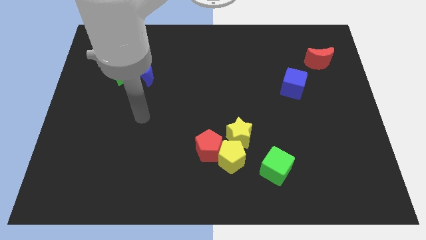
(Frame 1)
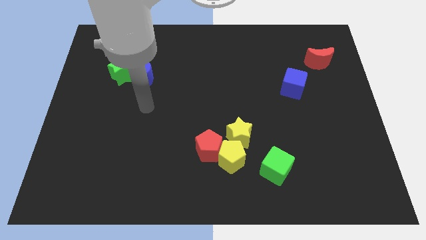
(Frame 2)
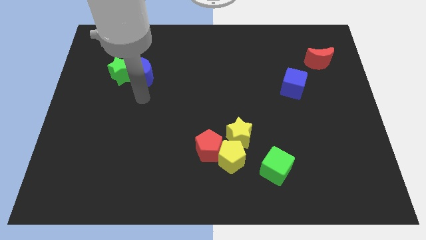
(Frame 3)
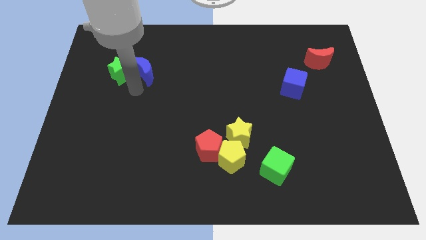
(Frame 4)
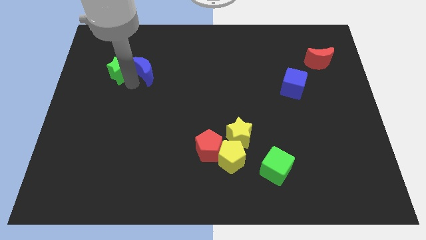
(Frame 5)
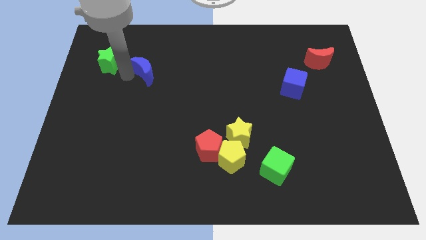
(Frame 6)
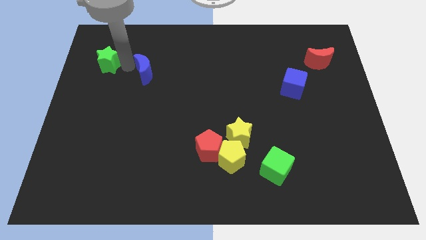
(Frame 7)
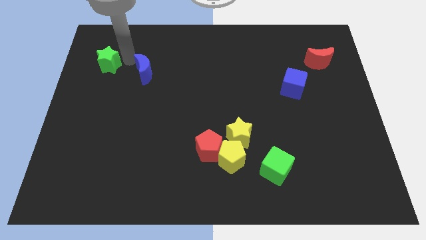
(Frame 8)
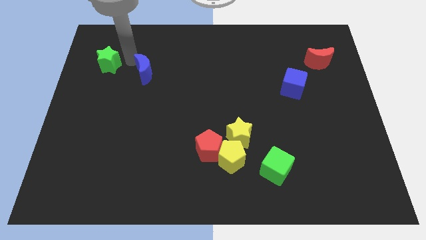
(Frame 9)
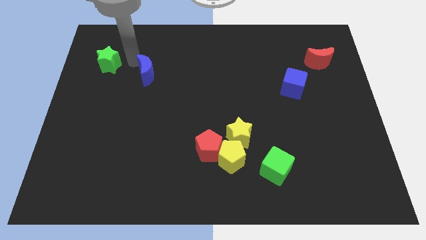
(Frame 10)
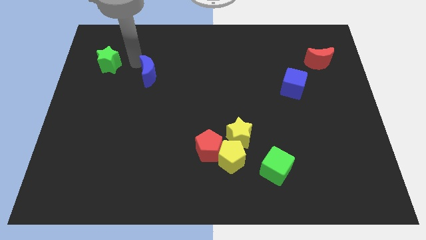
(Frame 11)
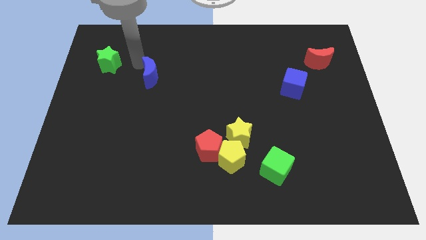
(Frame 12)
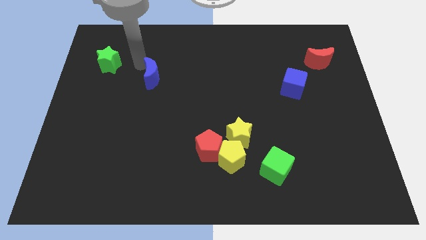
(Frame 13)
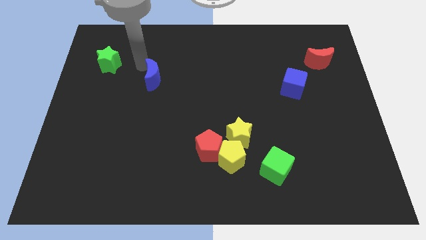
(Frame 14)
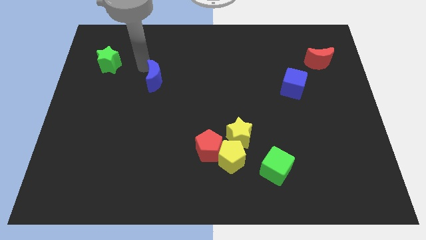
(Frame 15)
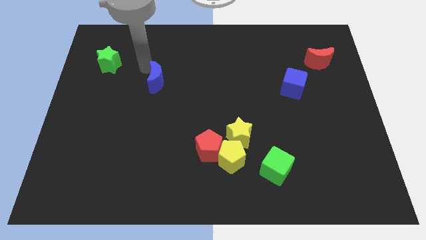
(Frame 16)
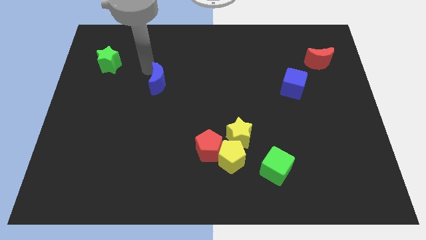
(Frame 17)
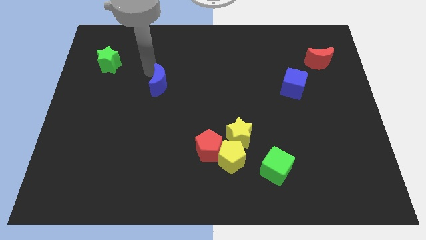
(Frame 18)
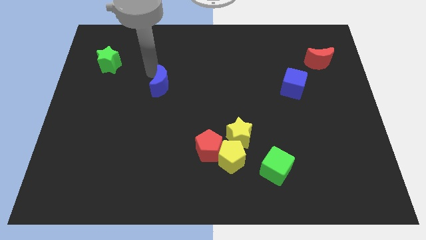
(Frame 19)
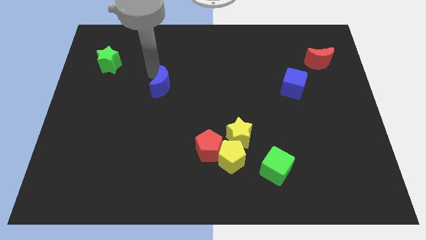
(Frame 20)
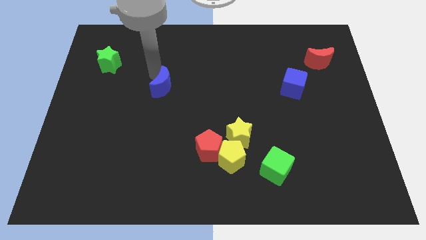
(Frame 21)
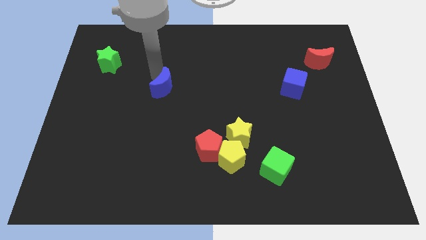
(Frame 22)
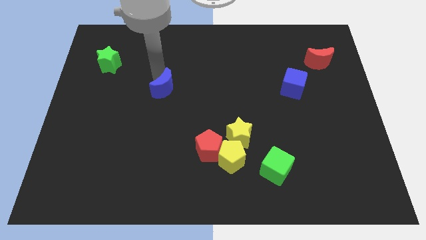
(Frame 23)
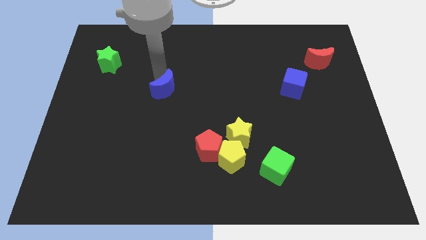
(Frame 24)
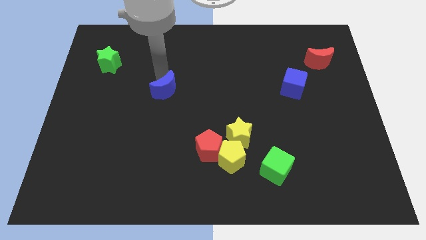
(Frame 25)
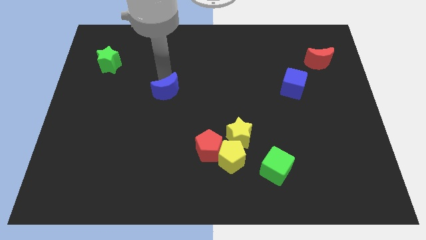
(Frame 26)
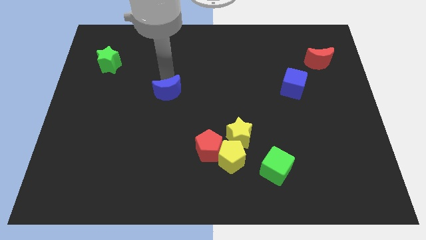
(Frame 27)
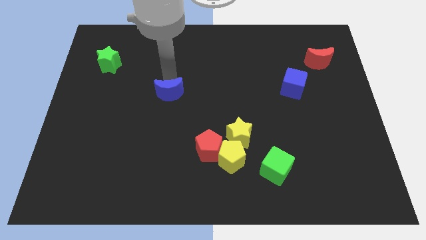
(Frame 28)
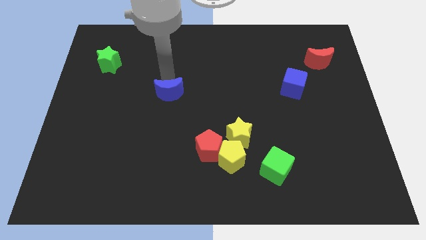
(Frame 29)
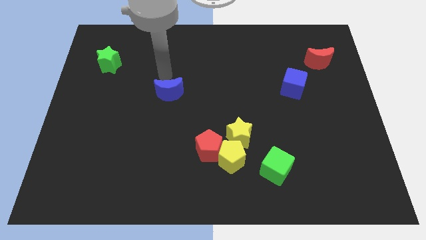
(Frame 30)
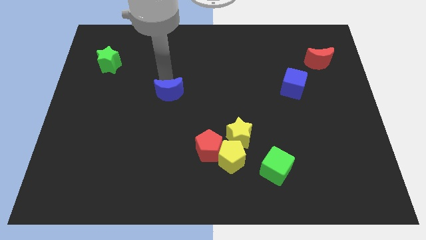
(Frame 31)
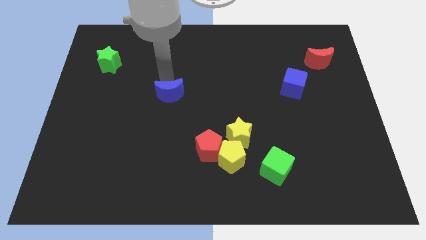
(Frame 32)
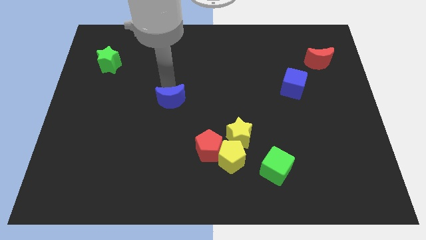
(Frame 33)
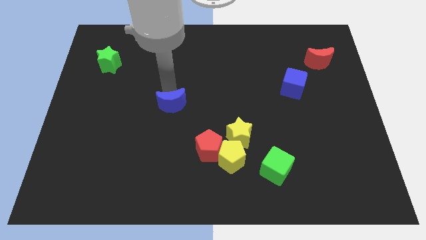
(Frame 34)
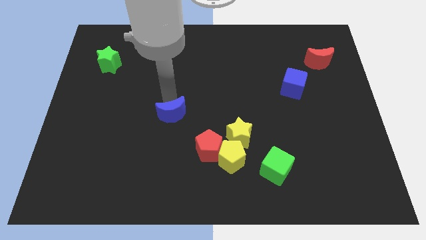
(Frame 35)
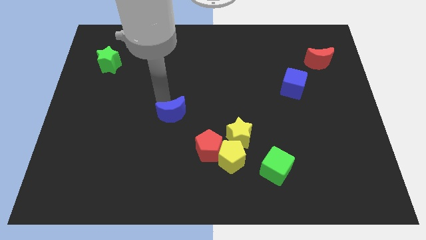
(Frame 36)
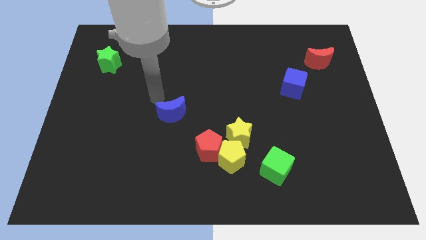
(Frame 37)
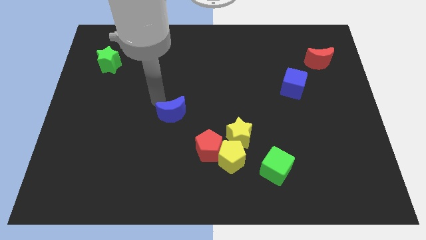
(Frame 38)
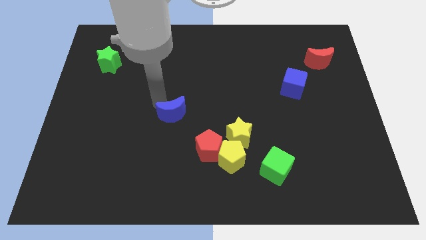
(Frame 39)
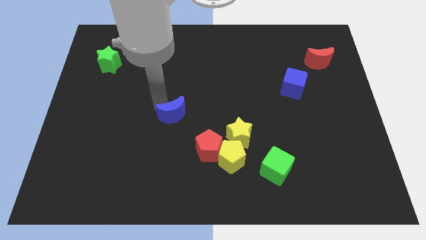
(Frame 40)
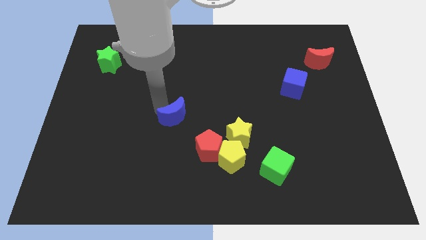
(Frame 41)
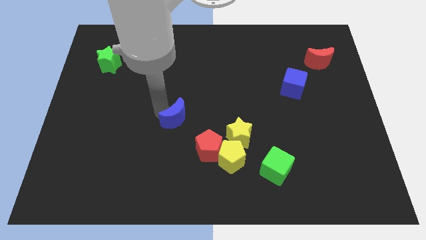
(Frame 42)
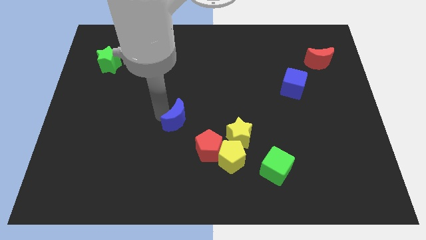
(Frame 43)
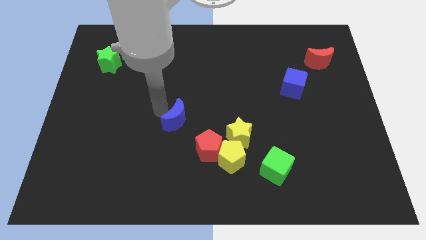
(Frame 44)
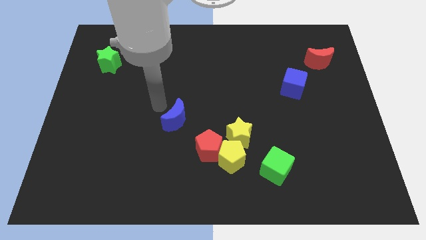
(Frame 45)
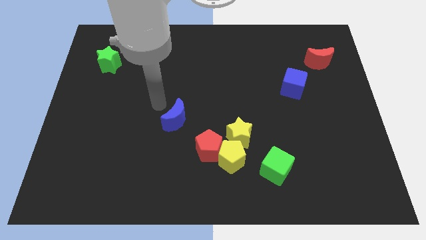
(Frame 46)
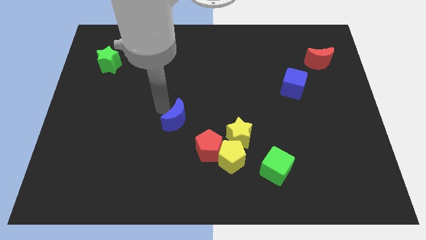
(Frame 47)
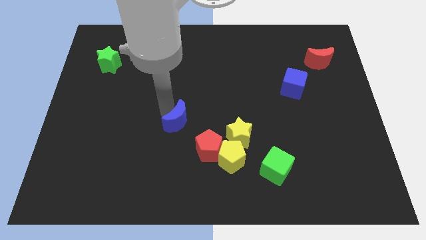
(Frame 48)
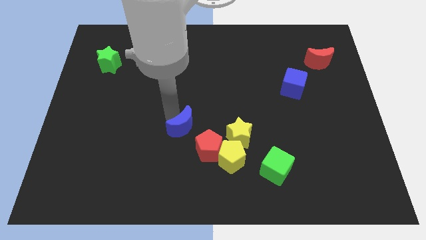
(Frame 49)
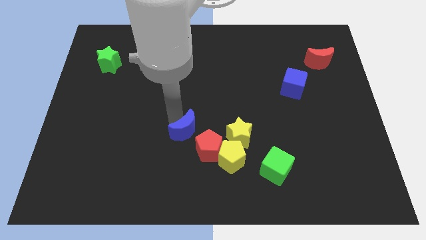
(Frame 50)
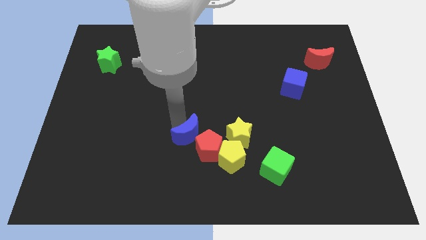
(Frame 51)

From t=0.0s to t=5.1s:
push the blue moon to the red pentagon

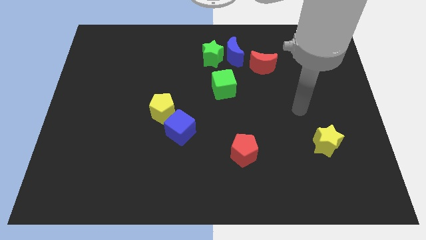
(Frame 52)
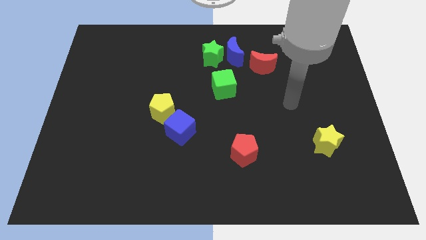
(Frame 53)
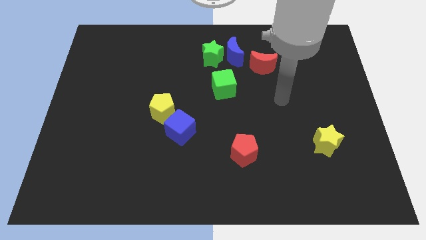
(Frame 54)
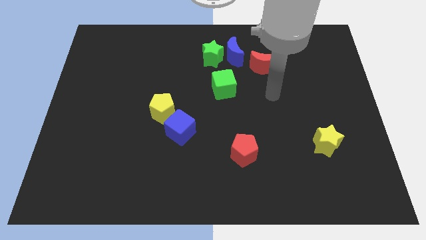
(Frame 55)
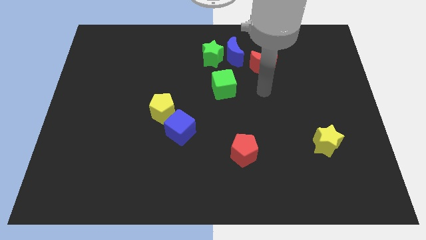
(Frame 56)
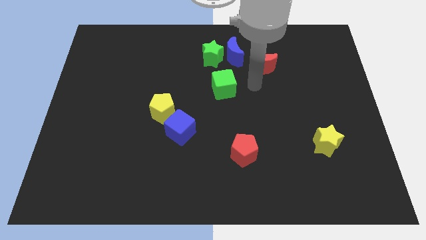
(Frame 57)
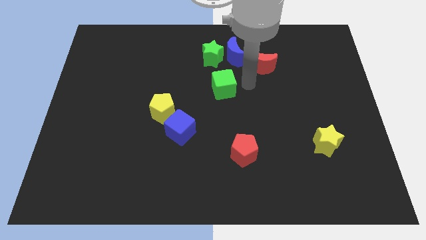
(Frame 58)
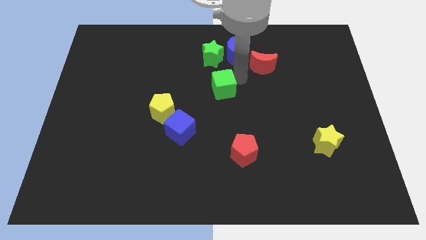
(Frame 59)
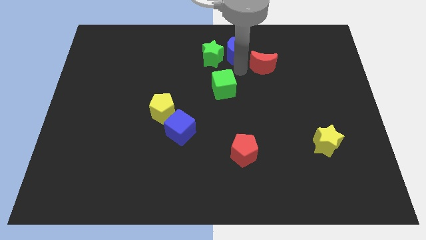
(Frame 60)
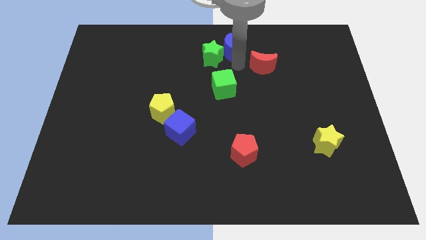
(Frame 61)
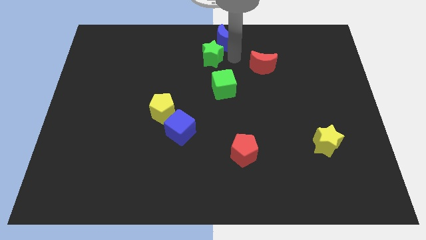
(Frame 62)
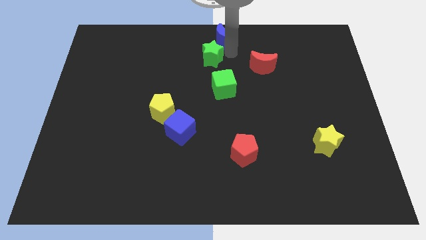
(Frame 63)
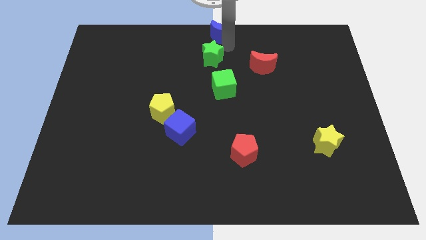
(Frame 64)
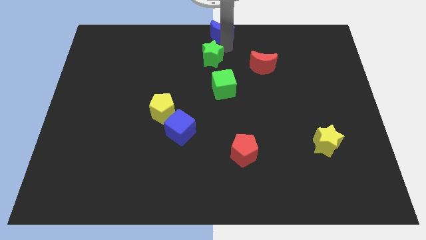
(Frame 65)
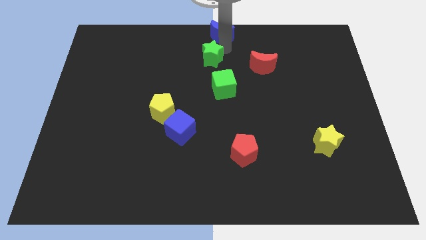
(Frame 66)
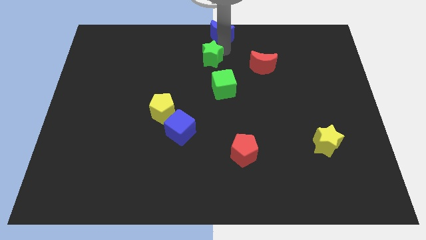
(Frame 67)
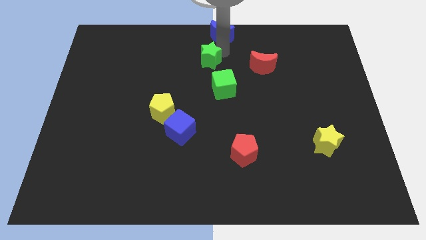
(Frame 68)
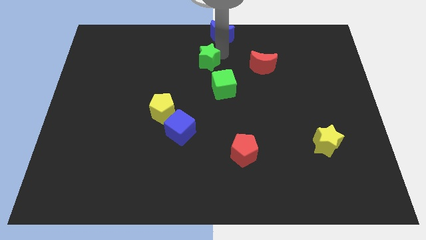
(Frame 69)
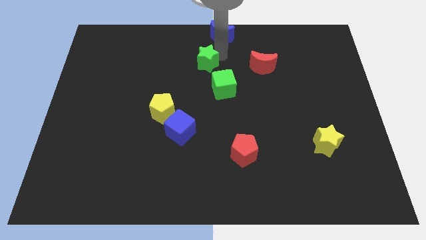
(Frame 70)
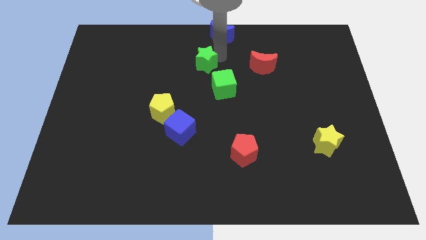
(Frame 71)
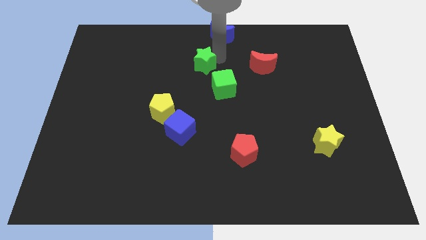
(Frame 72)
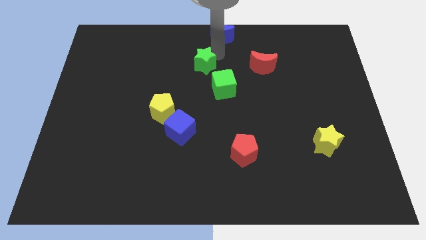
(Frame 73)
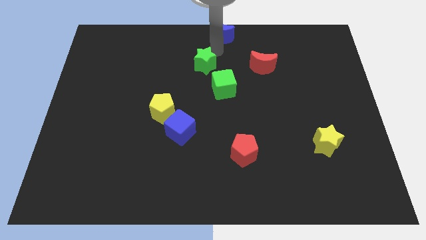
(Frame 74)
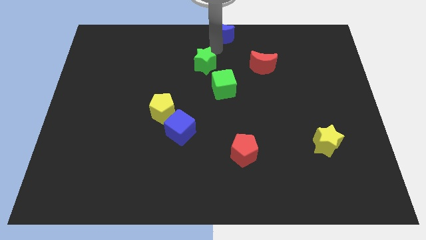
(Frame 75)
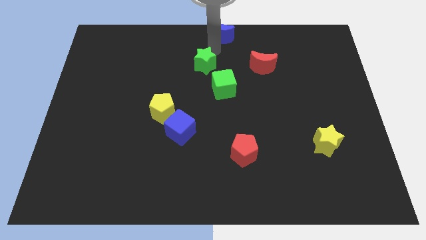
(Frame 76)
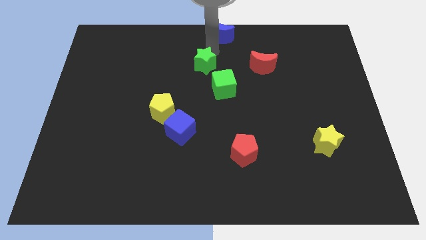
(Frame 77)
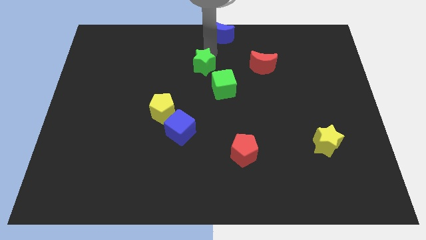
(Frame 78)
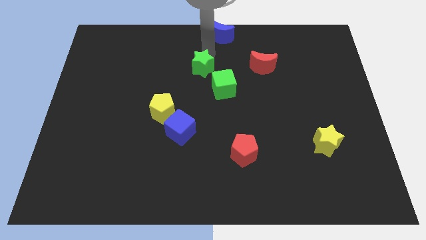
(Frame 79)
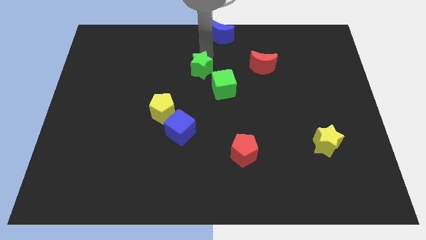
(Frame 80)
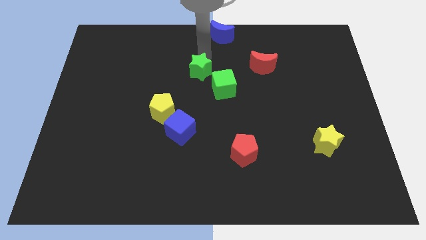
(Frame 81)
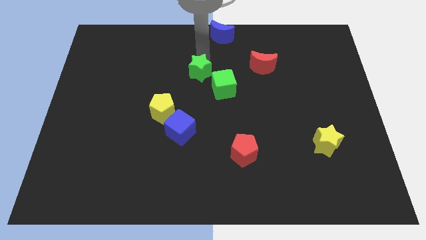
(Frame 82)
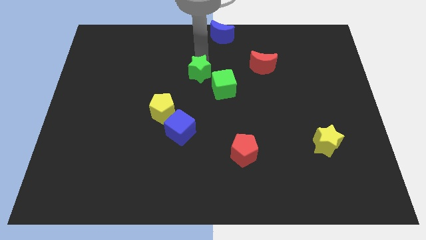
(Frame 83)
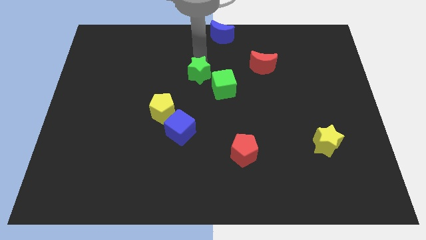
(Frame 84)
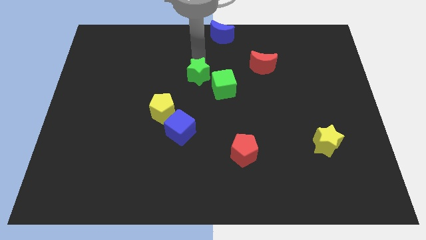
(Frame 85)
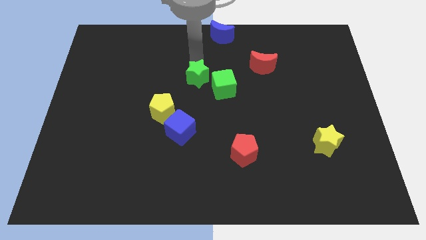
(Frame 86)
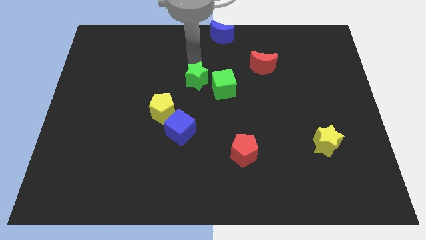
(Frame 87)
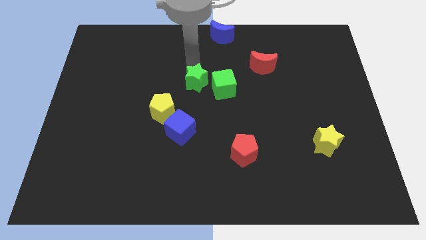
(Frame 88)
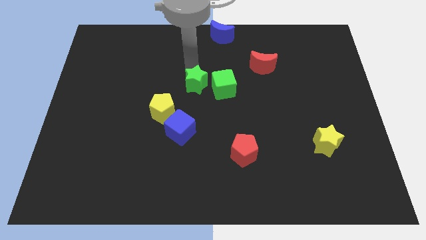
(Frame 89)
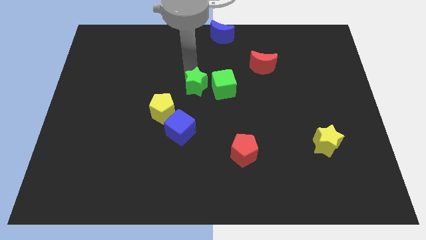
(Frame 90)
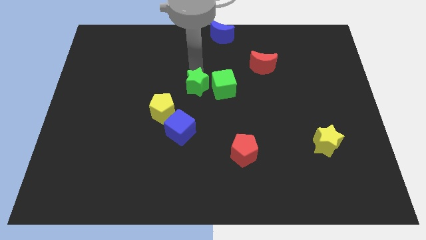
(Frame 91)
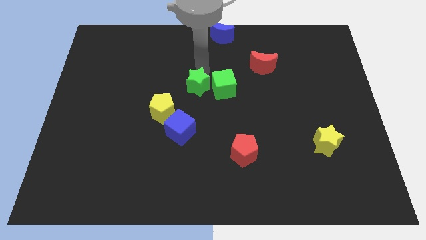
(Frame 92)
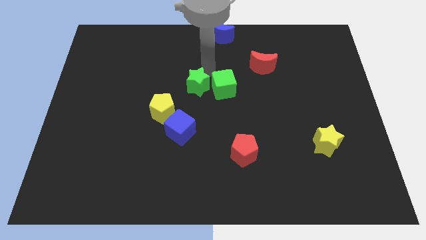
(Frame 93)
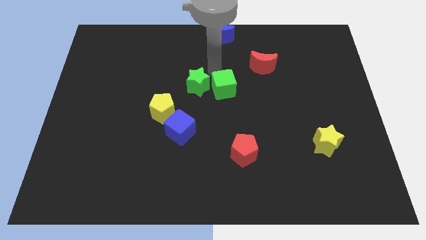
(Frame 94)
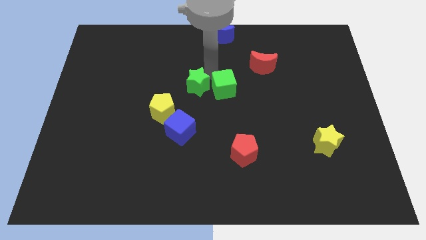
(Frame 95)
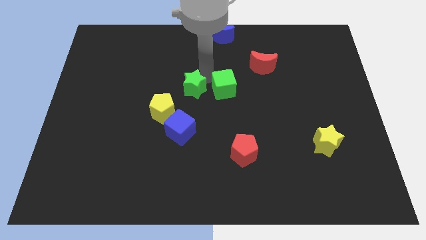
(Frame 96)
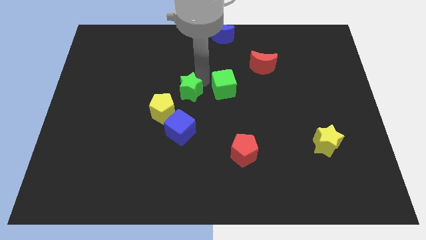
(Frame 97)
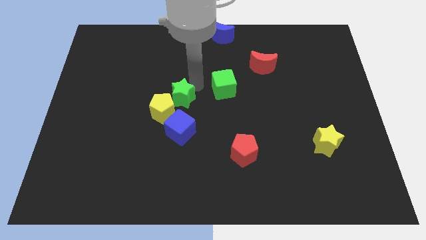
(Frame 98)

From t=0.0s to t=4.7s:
put the green star to the yellow pentagon
